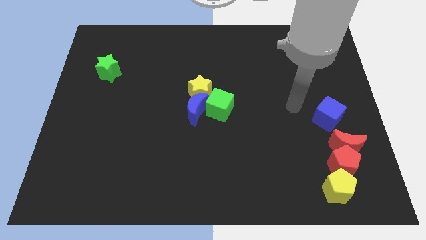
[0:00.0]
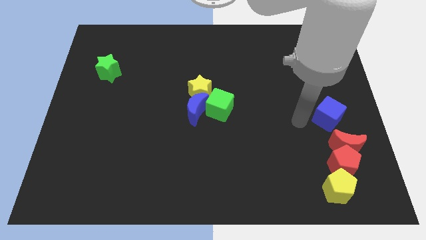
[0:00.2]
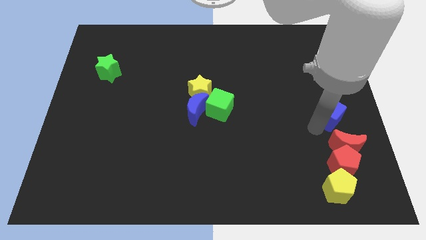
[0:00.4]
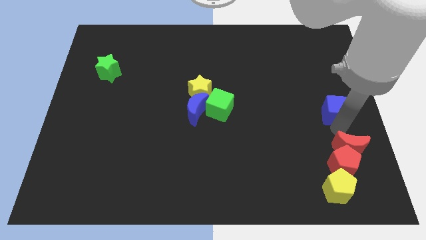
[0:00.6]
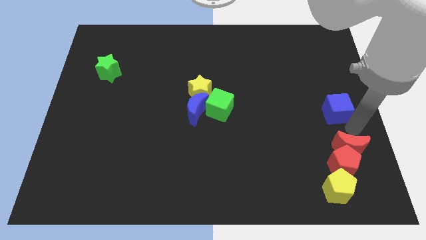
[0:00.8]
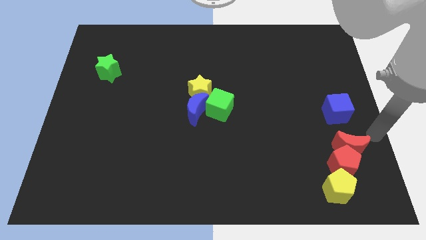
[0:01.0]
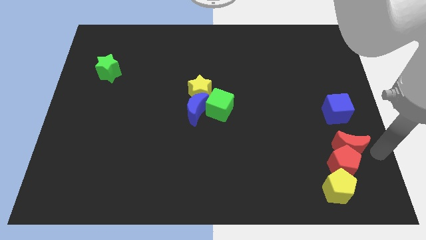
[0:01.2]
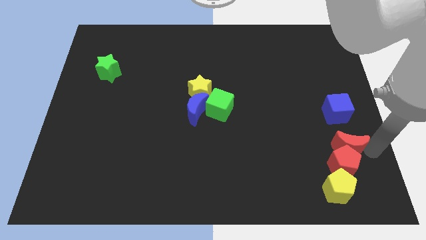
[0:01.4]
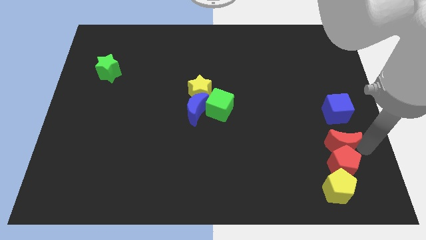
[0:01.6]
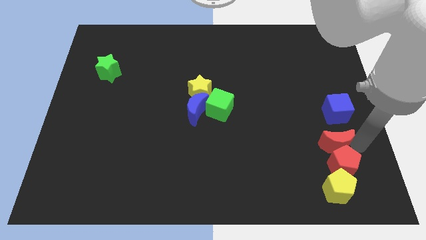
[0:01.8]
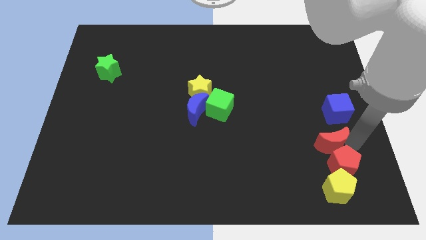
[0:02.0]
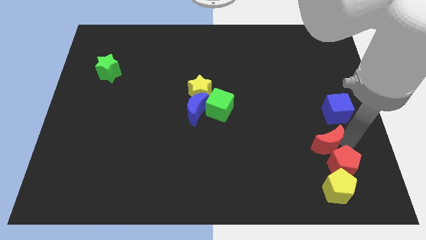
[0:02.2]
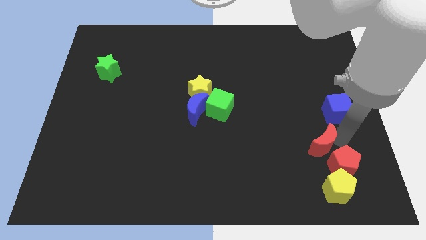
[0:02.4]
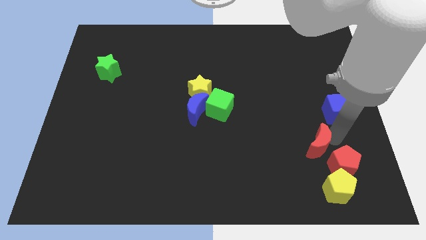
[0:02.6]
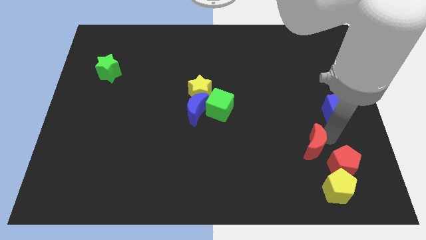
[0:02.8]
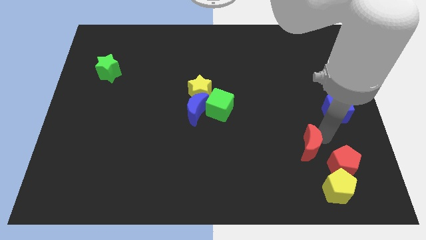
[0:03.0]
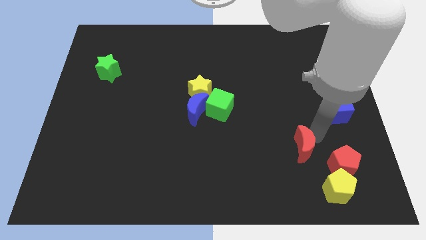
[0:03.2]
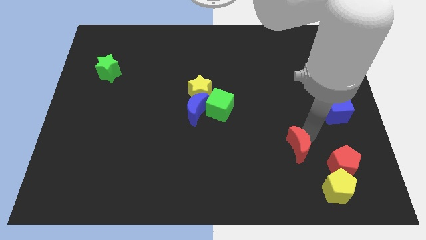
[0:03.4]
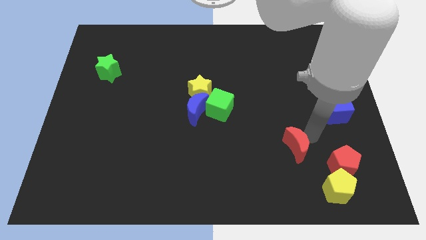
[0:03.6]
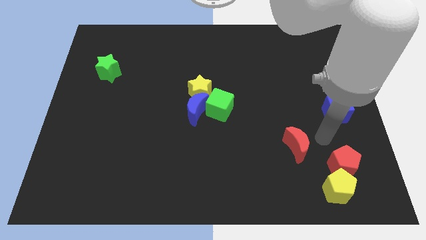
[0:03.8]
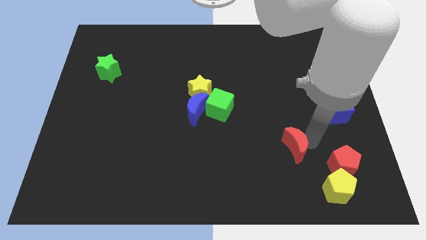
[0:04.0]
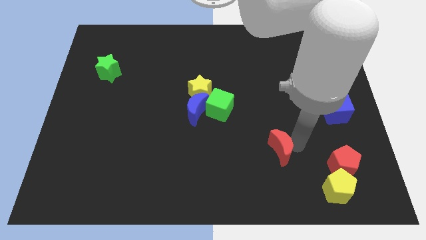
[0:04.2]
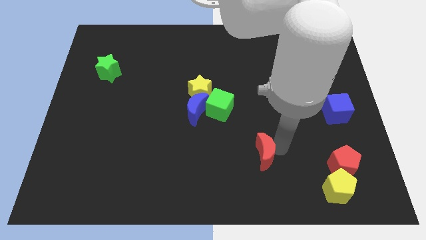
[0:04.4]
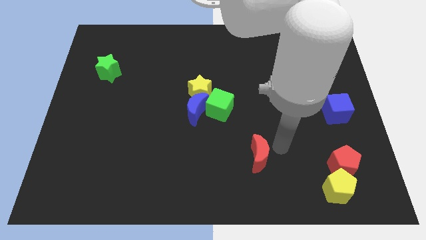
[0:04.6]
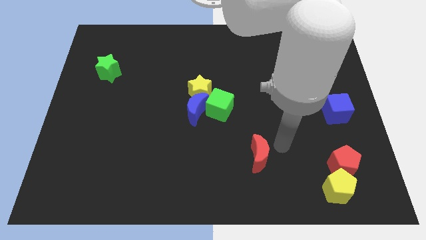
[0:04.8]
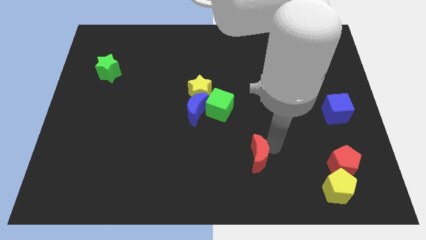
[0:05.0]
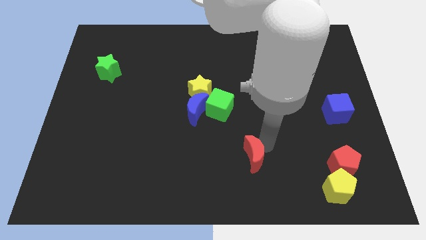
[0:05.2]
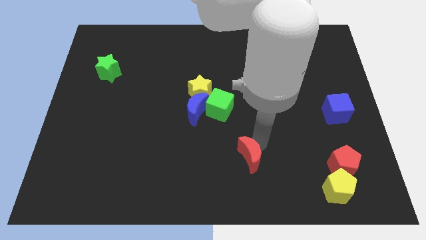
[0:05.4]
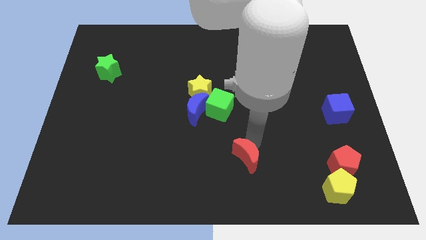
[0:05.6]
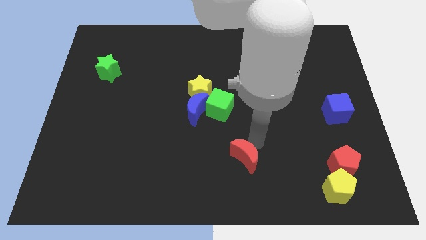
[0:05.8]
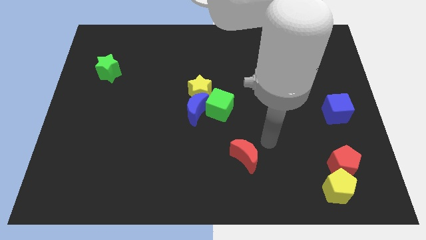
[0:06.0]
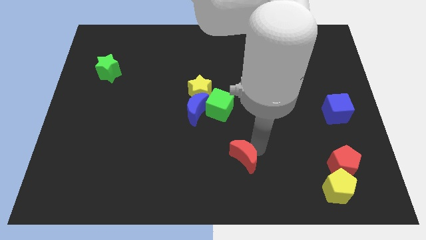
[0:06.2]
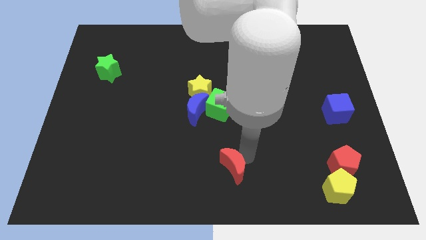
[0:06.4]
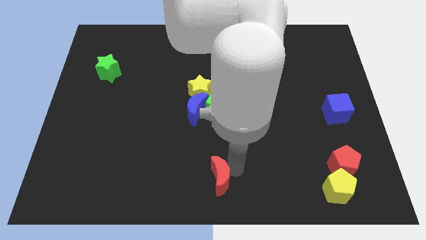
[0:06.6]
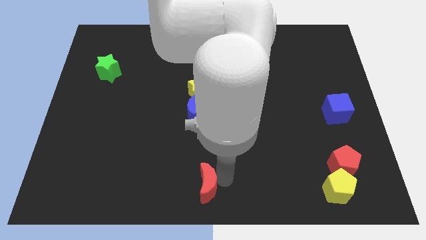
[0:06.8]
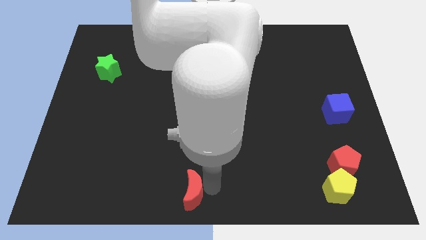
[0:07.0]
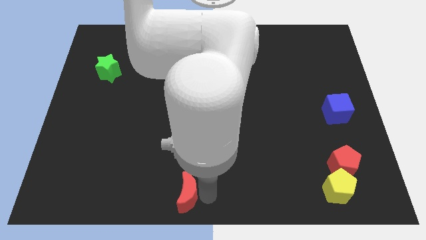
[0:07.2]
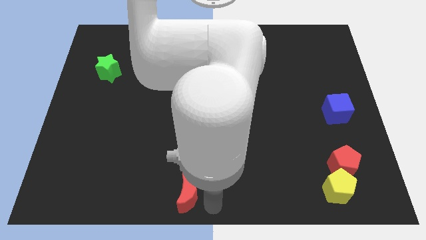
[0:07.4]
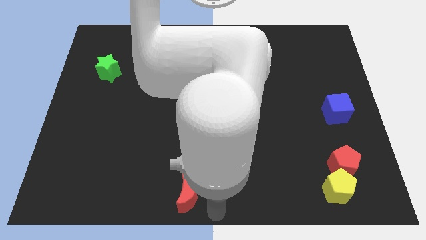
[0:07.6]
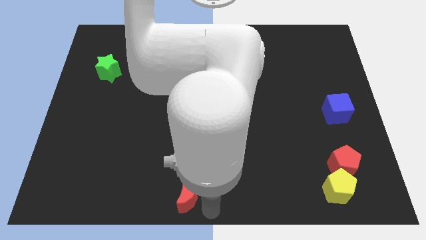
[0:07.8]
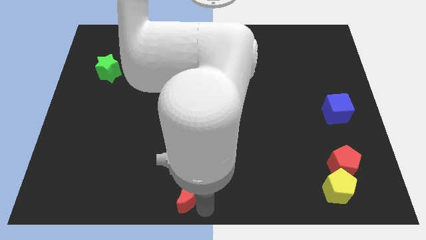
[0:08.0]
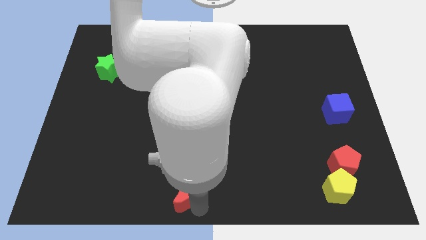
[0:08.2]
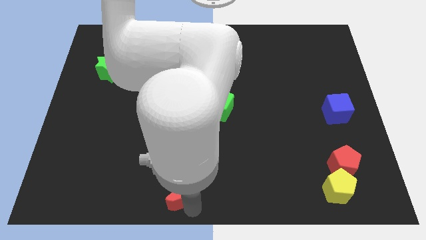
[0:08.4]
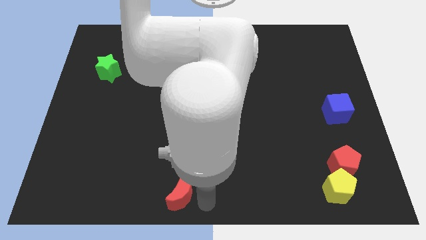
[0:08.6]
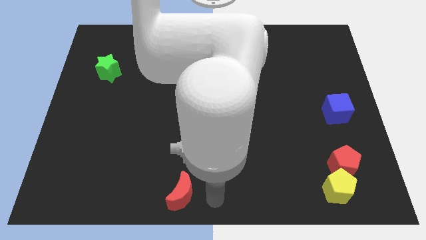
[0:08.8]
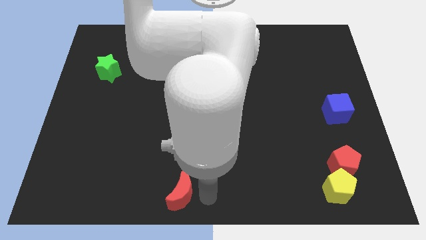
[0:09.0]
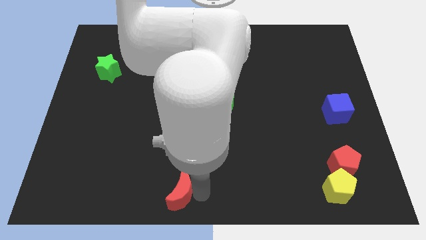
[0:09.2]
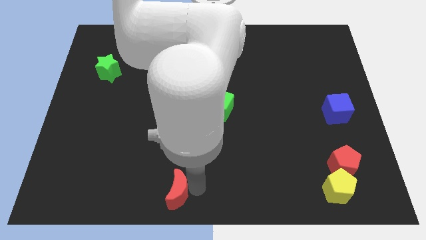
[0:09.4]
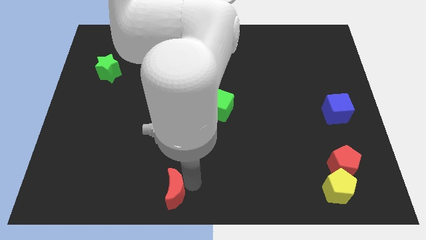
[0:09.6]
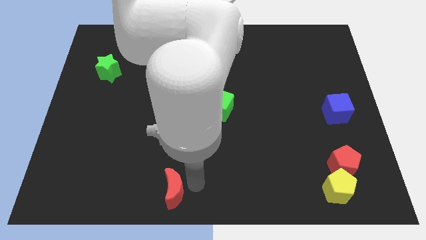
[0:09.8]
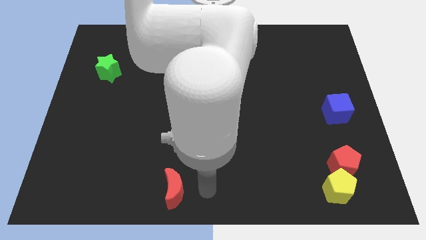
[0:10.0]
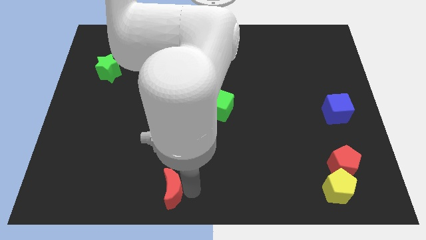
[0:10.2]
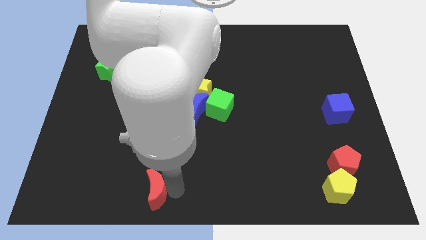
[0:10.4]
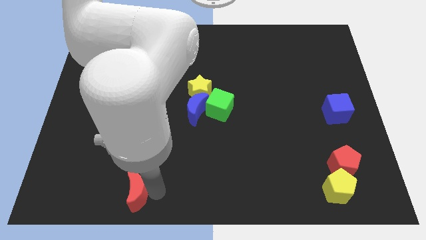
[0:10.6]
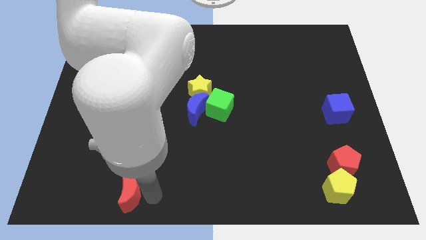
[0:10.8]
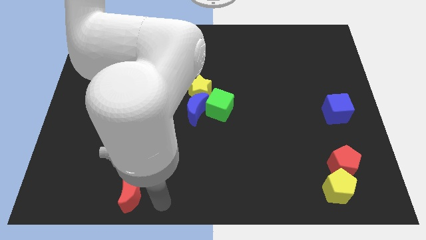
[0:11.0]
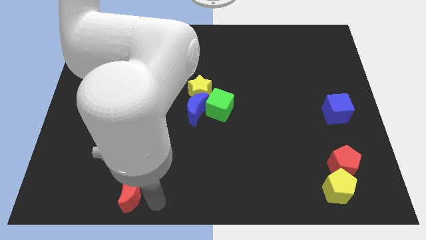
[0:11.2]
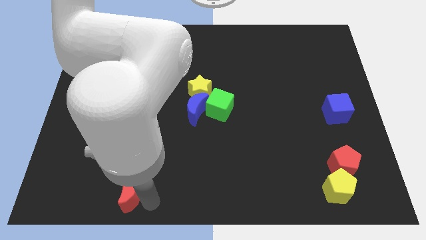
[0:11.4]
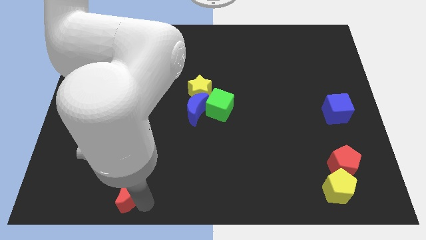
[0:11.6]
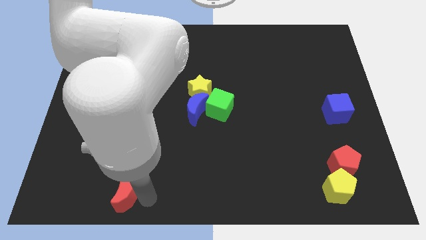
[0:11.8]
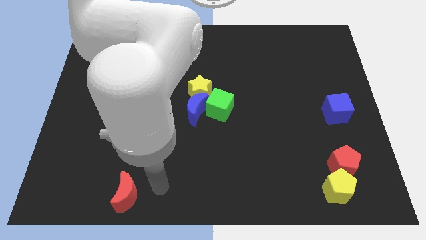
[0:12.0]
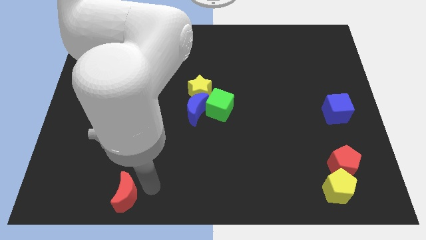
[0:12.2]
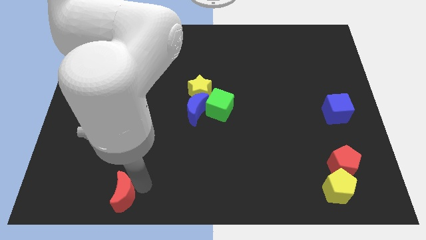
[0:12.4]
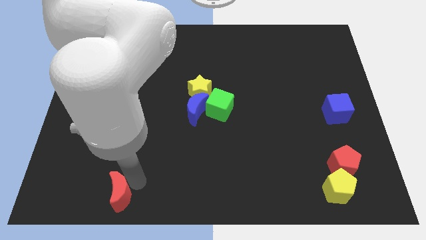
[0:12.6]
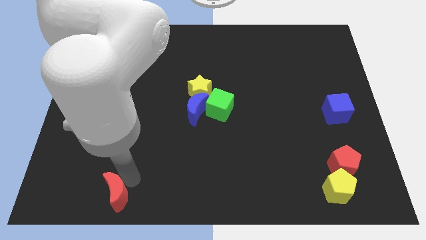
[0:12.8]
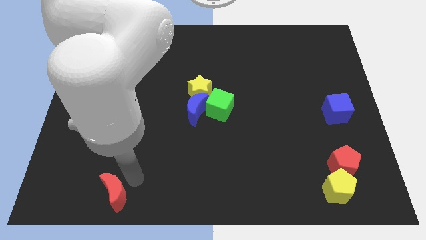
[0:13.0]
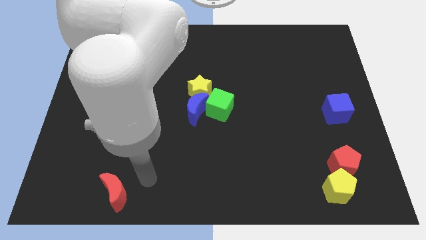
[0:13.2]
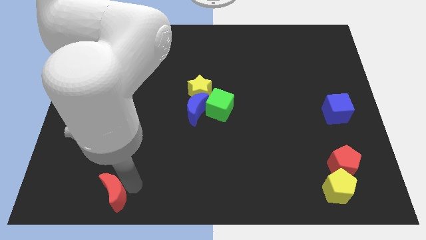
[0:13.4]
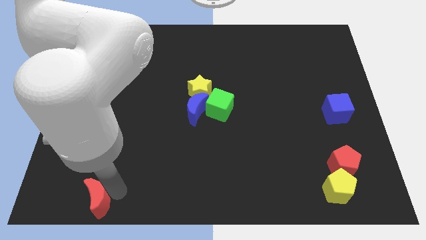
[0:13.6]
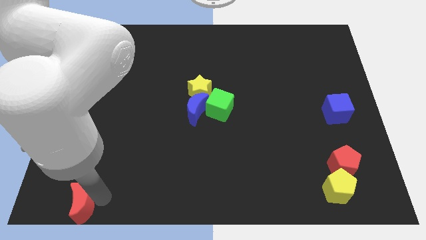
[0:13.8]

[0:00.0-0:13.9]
push the red moon to the bottom left corner
